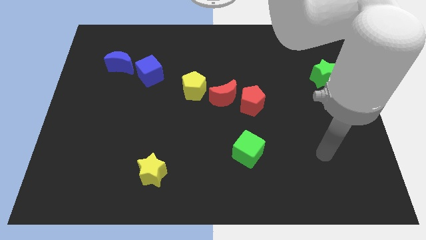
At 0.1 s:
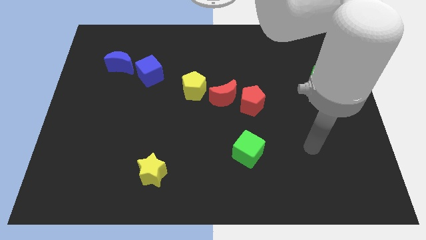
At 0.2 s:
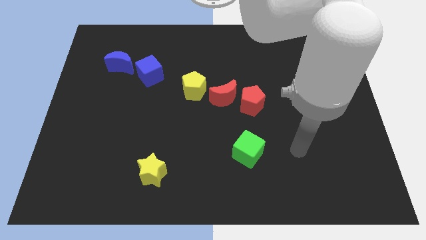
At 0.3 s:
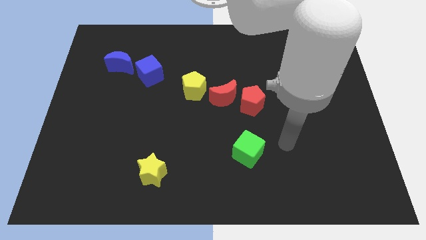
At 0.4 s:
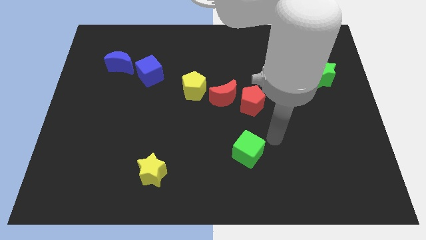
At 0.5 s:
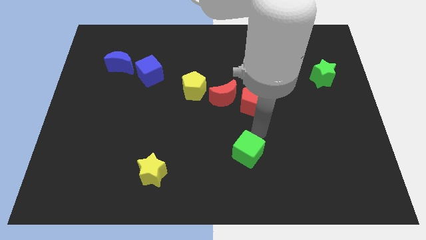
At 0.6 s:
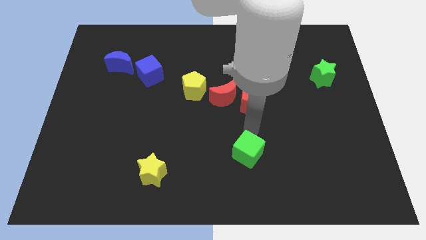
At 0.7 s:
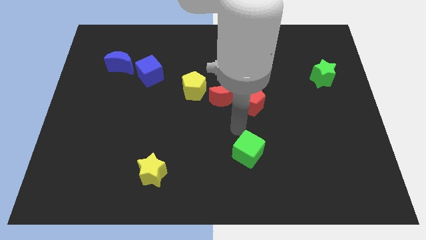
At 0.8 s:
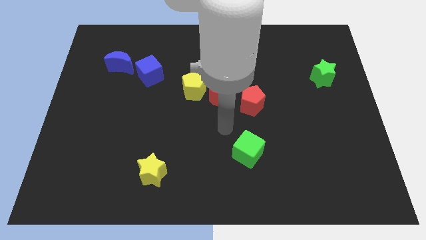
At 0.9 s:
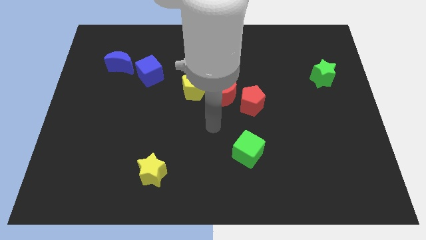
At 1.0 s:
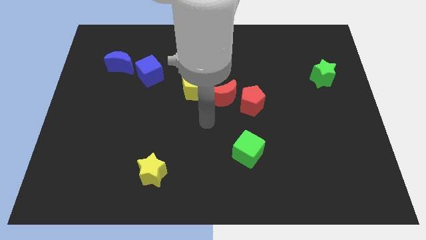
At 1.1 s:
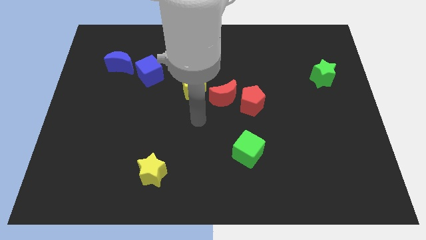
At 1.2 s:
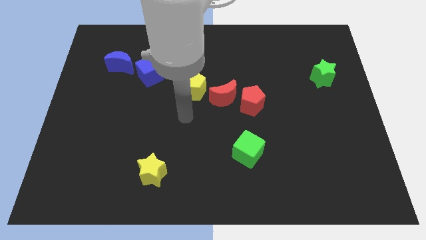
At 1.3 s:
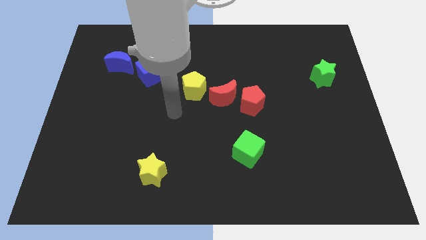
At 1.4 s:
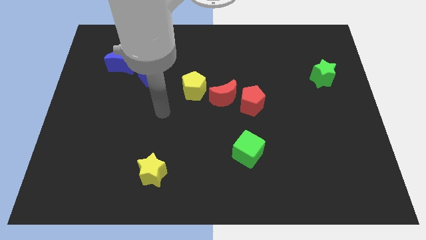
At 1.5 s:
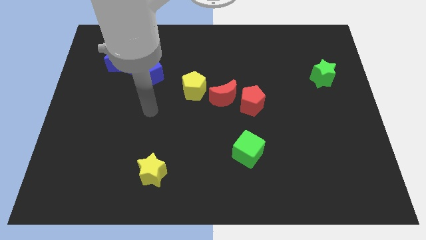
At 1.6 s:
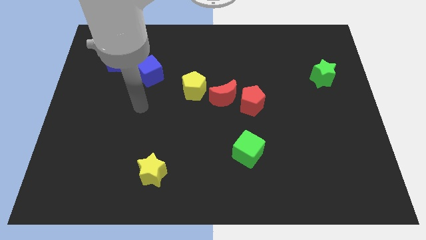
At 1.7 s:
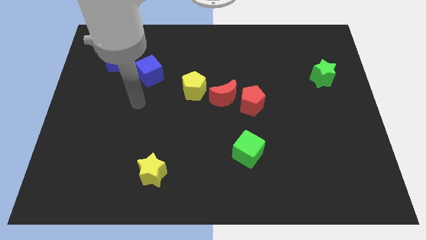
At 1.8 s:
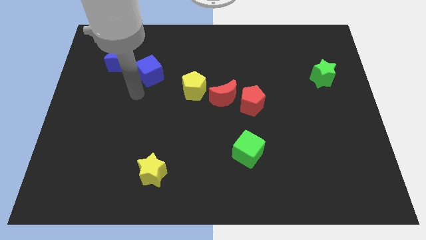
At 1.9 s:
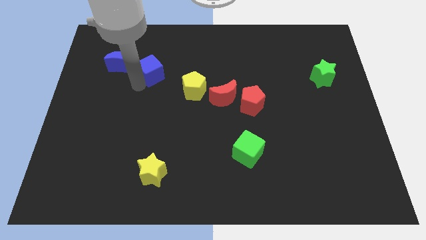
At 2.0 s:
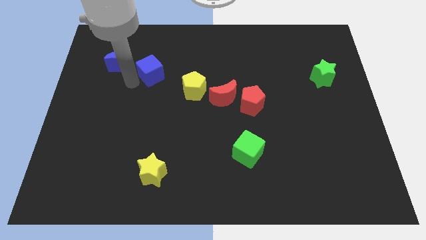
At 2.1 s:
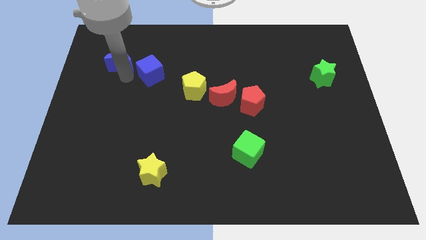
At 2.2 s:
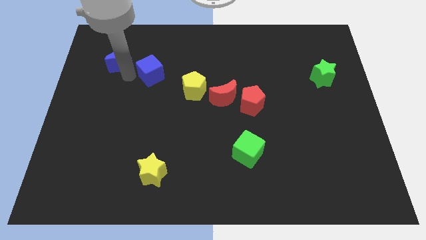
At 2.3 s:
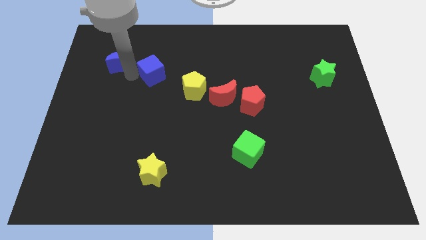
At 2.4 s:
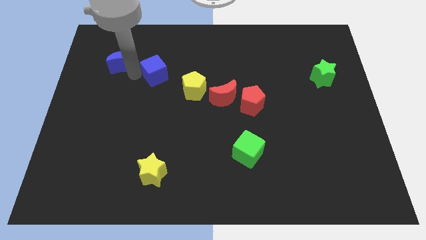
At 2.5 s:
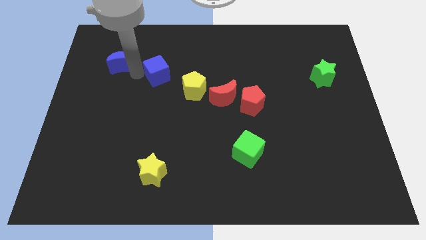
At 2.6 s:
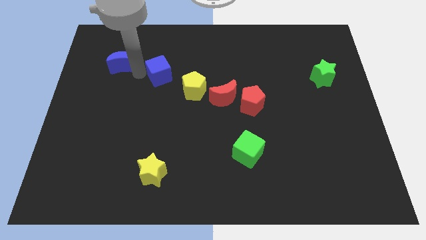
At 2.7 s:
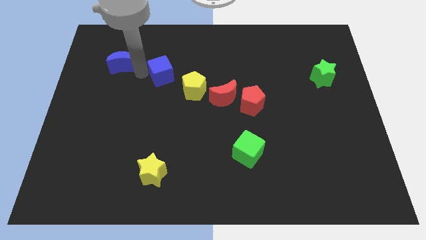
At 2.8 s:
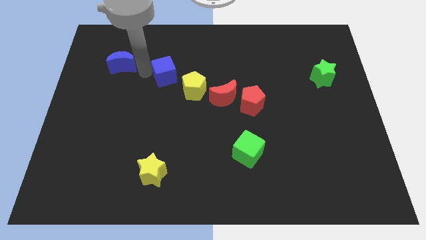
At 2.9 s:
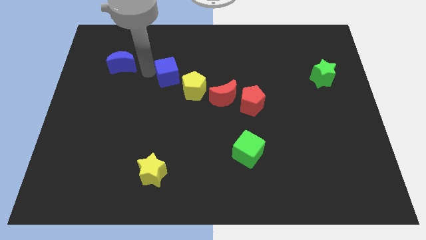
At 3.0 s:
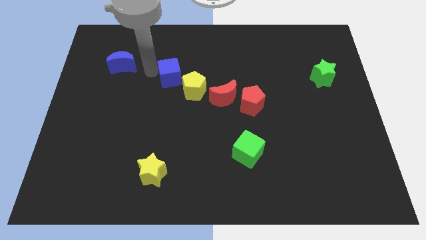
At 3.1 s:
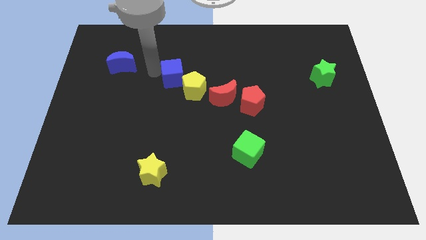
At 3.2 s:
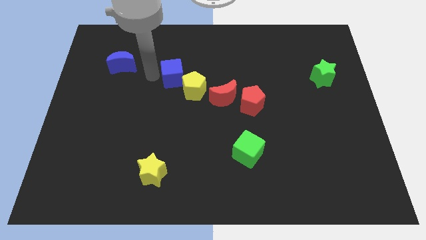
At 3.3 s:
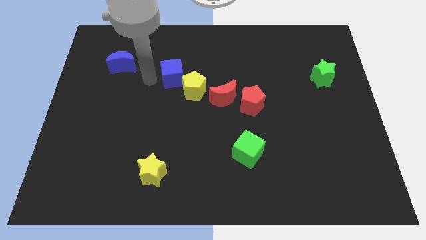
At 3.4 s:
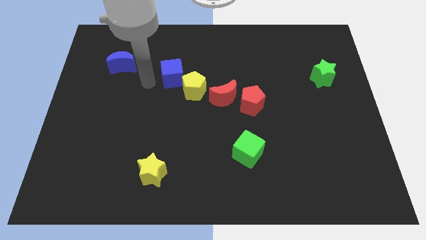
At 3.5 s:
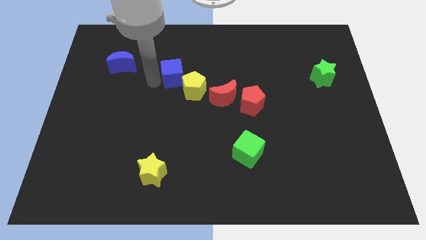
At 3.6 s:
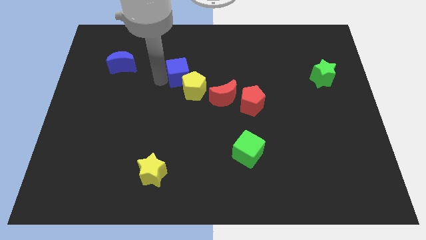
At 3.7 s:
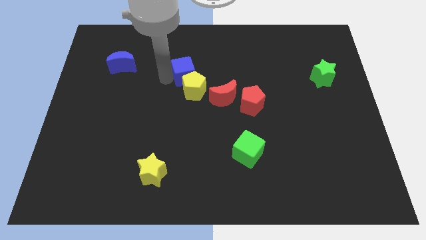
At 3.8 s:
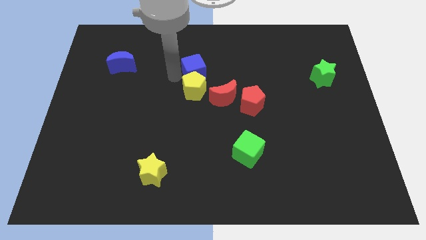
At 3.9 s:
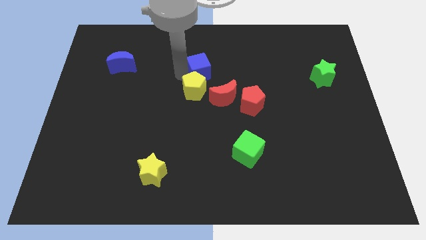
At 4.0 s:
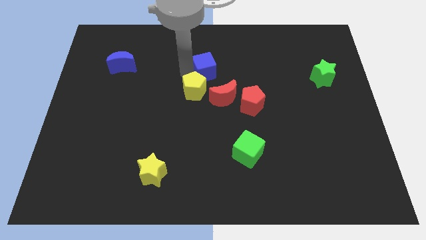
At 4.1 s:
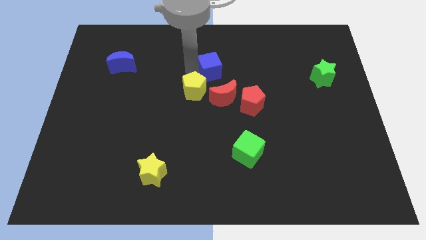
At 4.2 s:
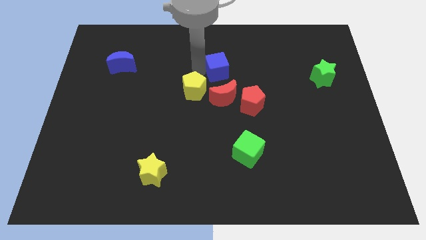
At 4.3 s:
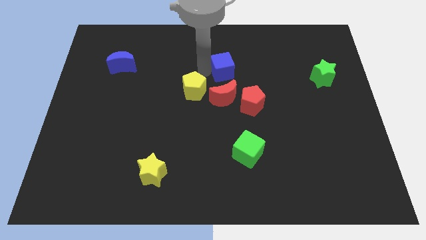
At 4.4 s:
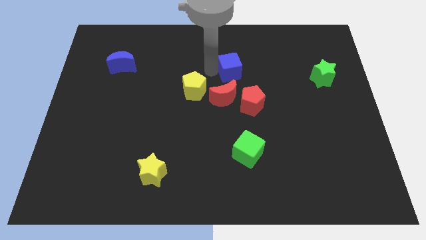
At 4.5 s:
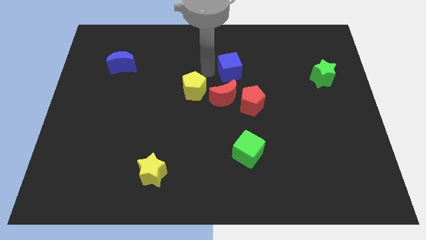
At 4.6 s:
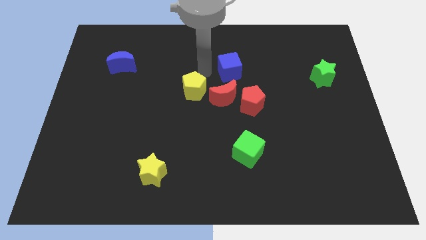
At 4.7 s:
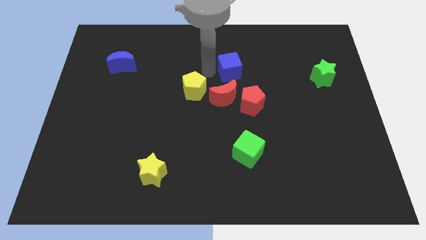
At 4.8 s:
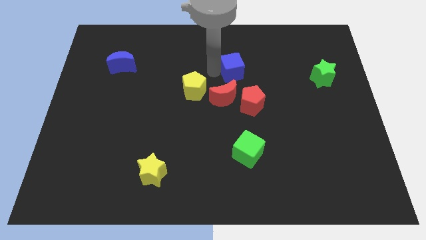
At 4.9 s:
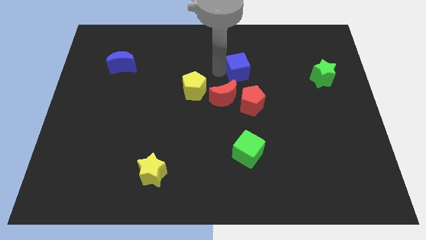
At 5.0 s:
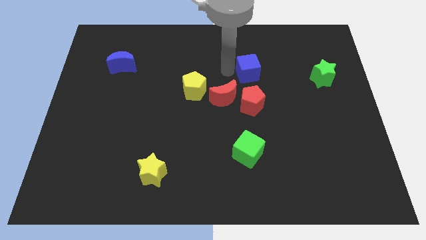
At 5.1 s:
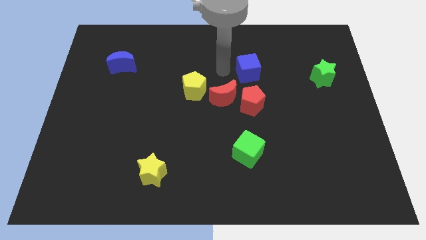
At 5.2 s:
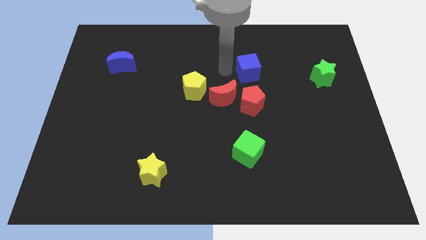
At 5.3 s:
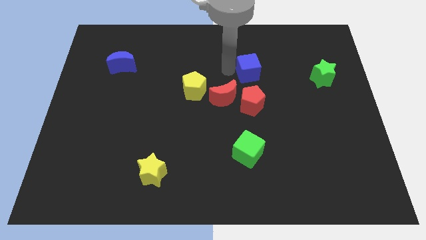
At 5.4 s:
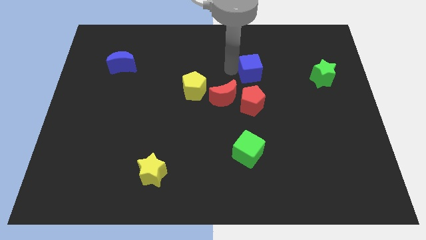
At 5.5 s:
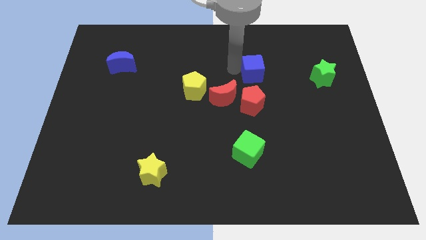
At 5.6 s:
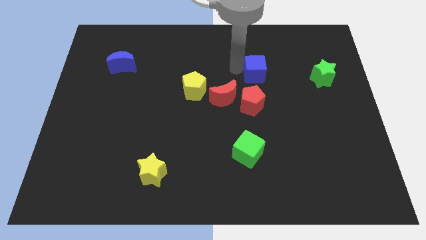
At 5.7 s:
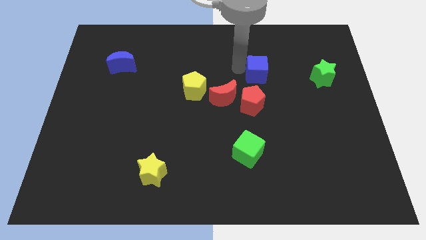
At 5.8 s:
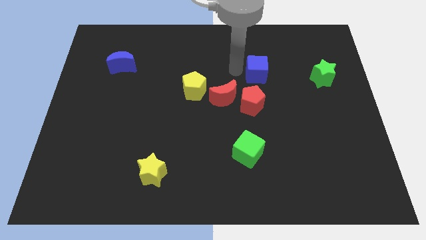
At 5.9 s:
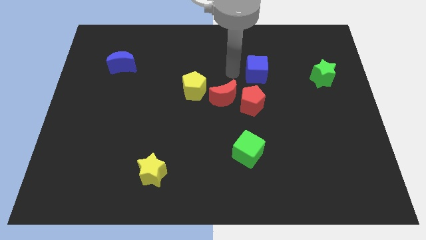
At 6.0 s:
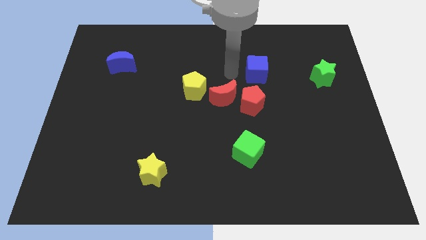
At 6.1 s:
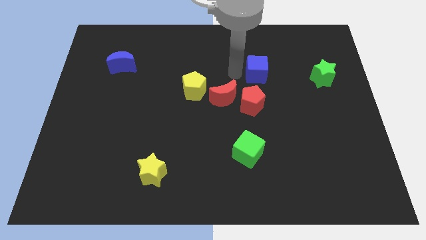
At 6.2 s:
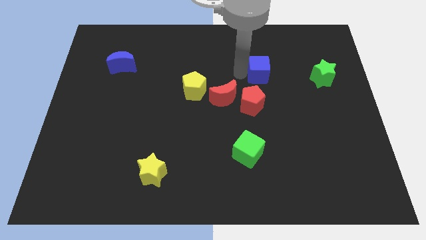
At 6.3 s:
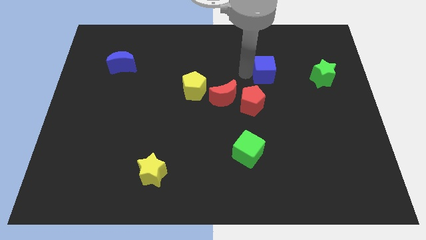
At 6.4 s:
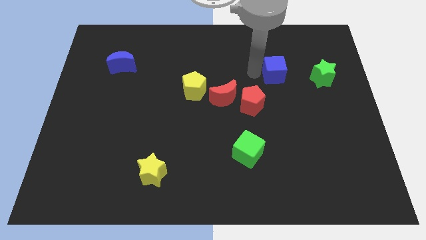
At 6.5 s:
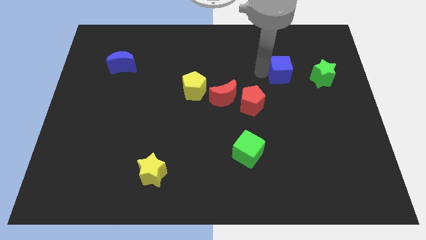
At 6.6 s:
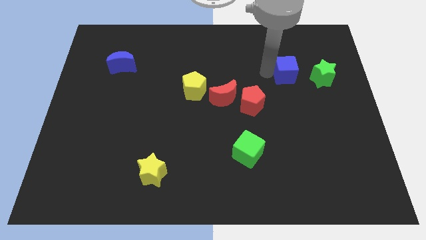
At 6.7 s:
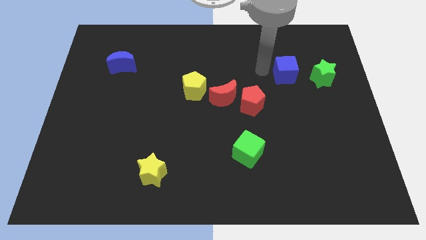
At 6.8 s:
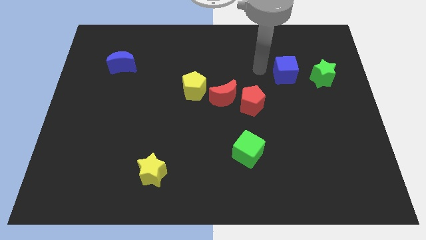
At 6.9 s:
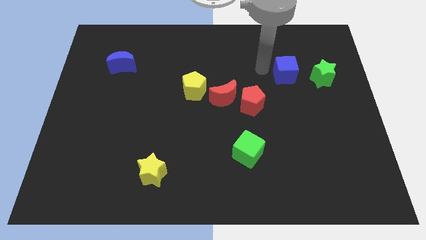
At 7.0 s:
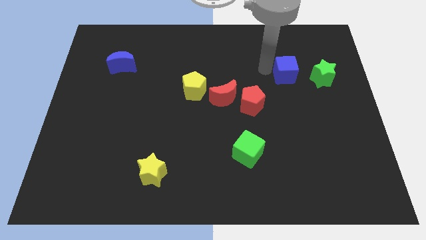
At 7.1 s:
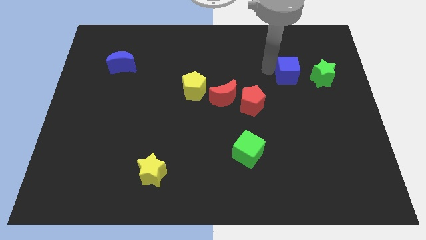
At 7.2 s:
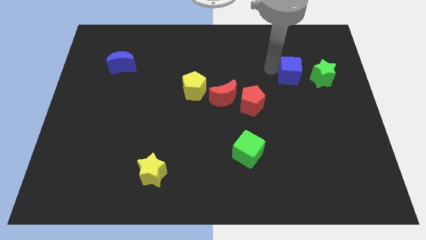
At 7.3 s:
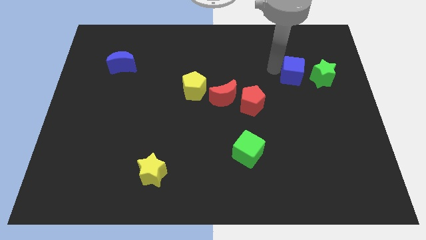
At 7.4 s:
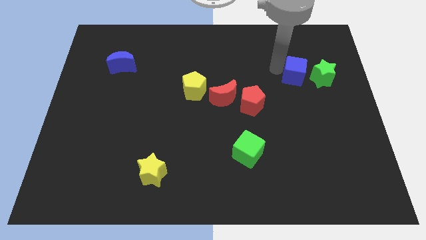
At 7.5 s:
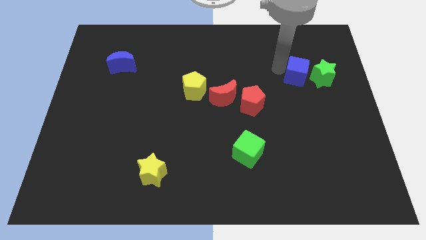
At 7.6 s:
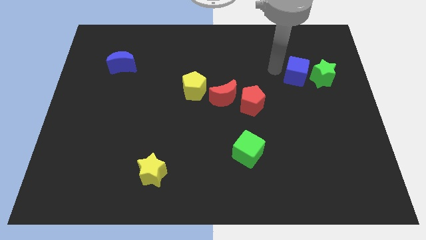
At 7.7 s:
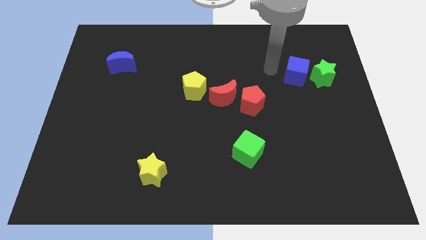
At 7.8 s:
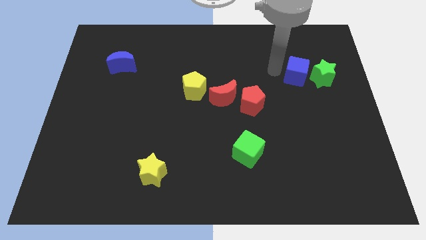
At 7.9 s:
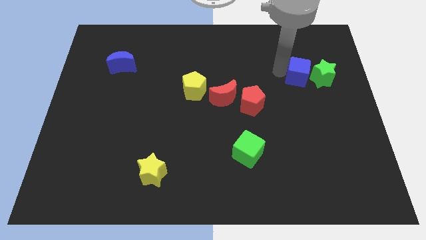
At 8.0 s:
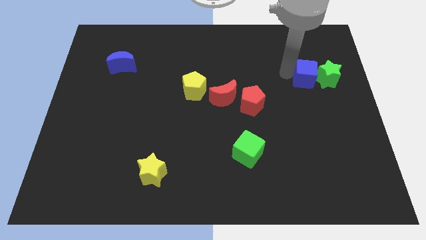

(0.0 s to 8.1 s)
put the blue cube close to the green star

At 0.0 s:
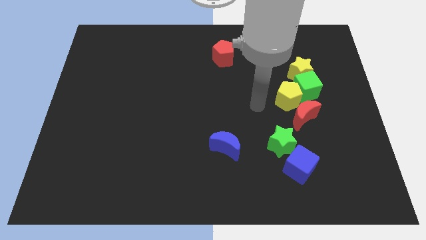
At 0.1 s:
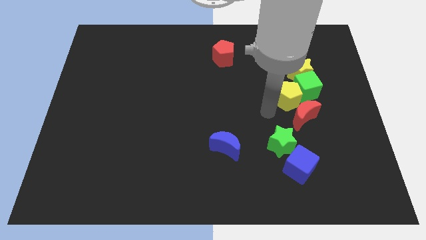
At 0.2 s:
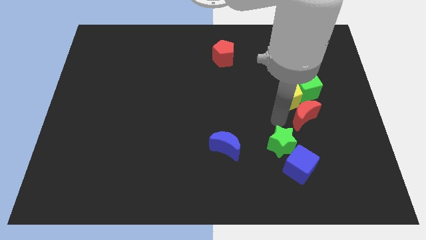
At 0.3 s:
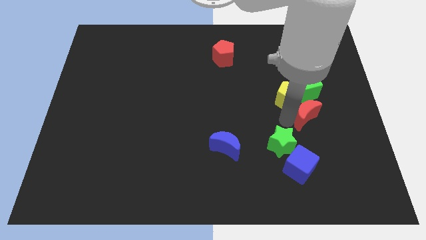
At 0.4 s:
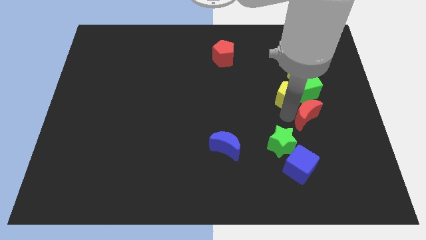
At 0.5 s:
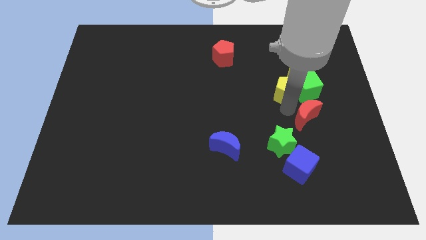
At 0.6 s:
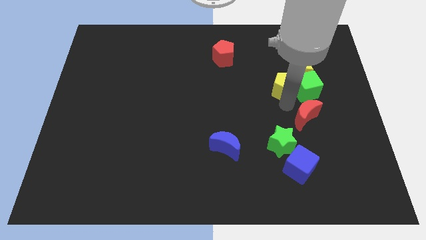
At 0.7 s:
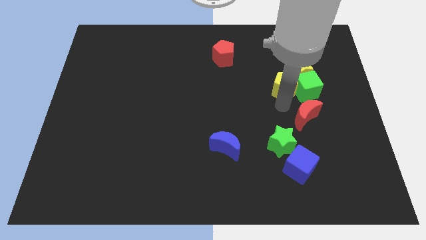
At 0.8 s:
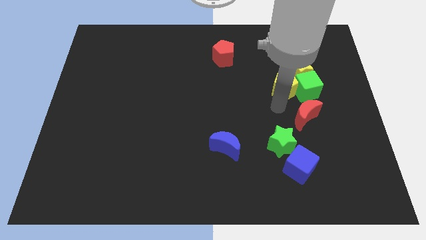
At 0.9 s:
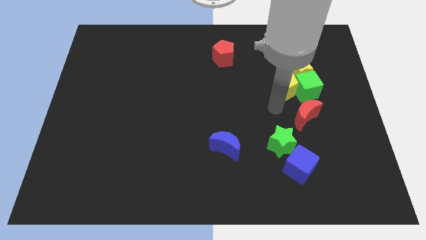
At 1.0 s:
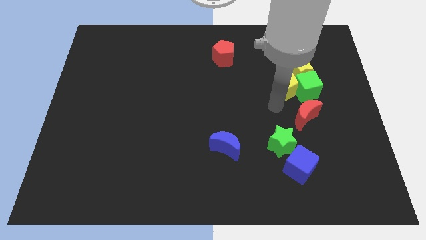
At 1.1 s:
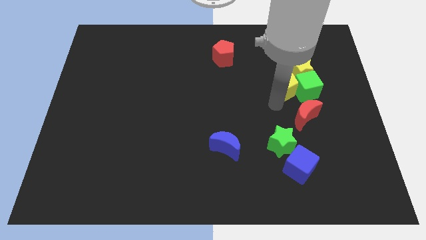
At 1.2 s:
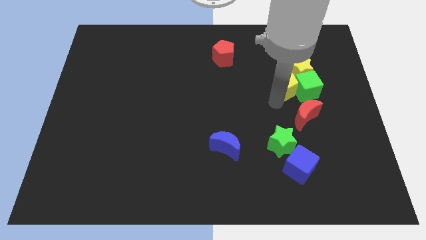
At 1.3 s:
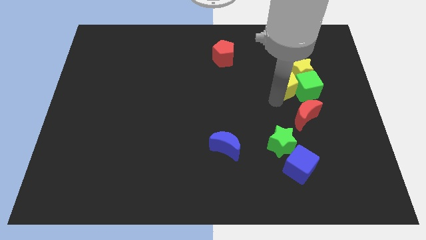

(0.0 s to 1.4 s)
put the yellow pentagon next to the yellow star
